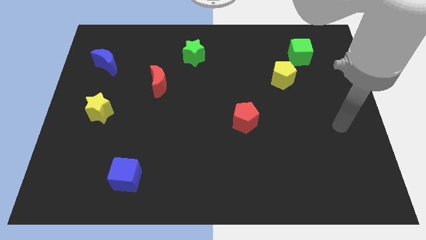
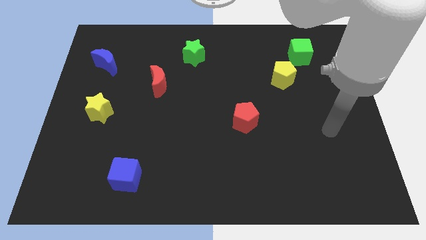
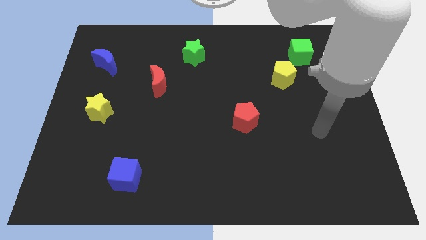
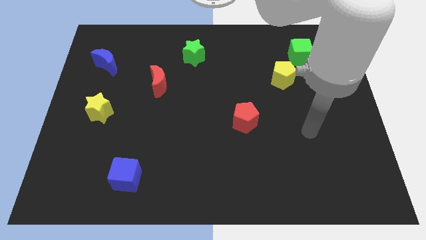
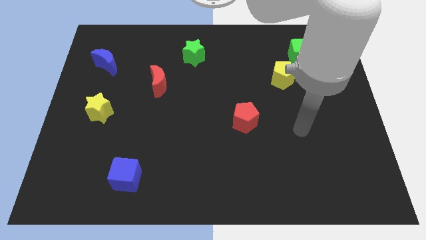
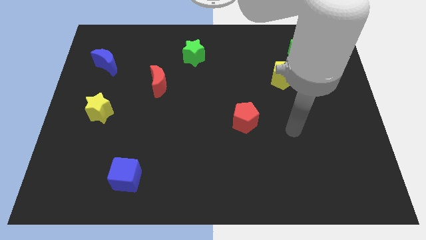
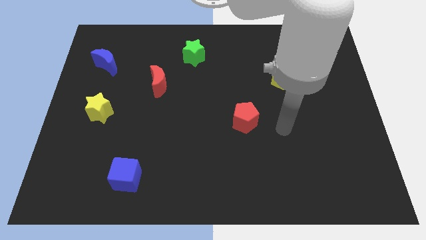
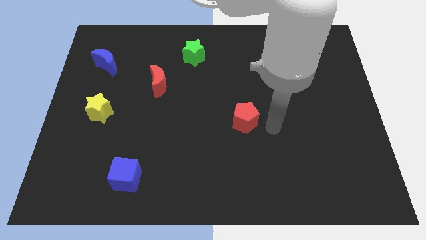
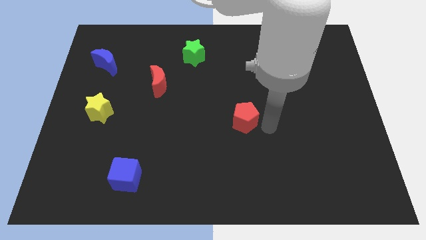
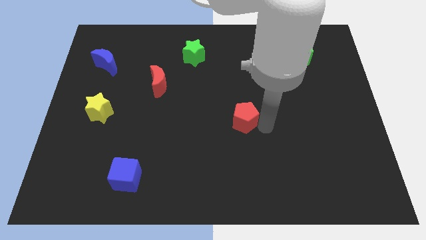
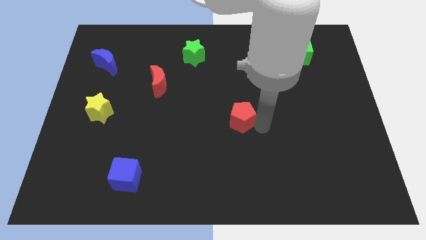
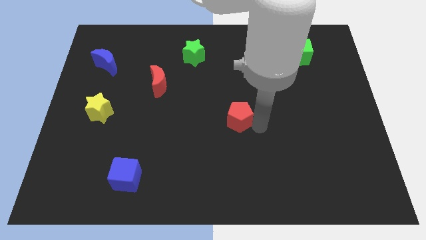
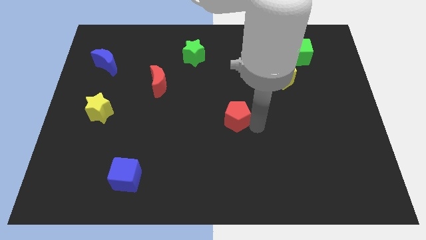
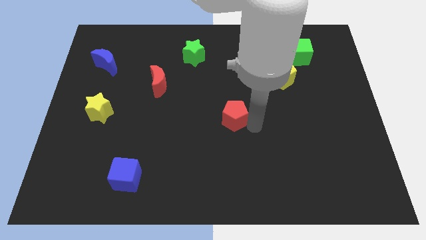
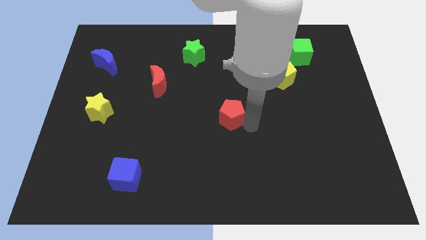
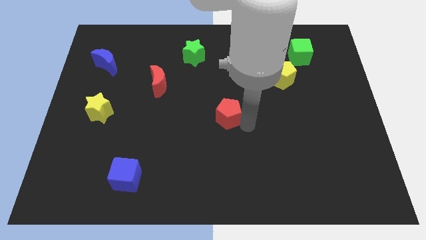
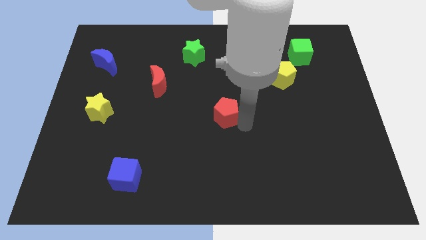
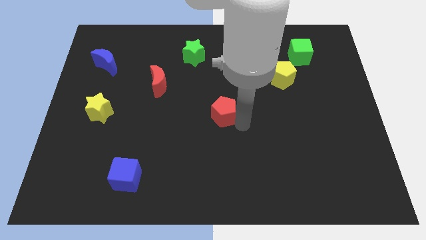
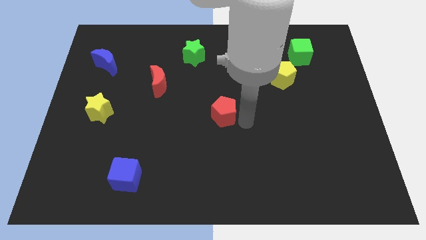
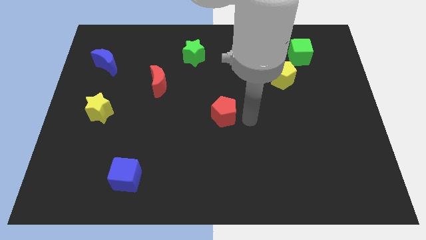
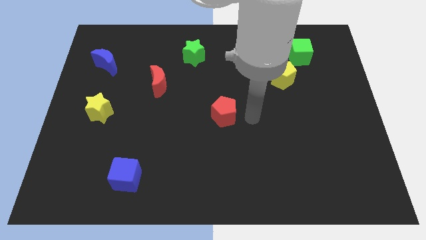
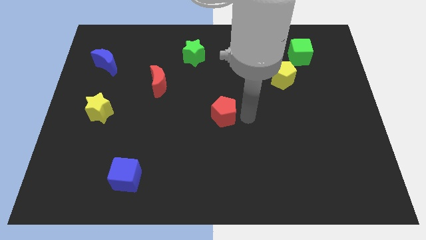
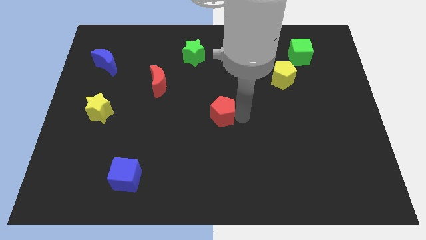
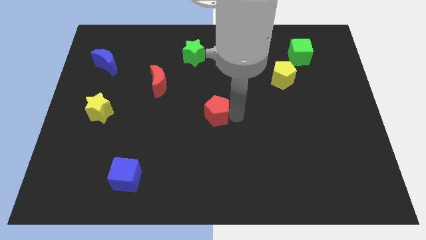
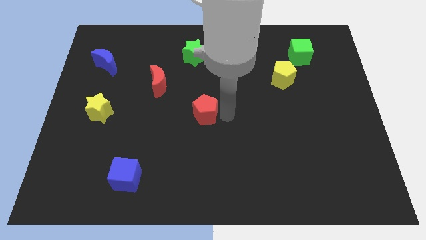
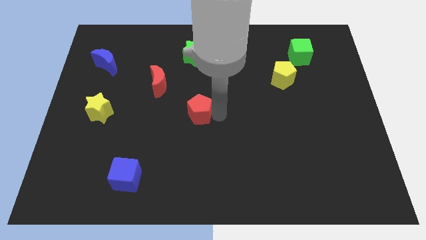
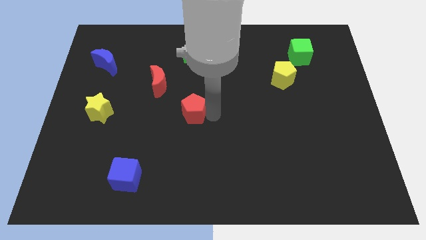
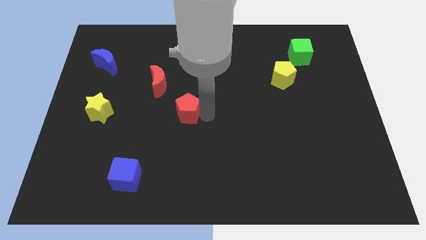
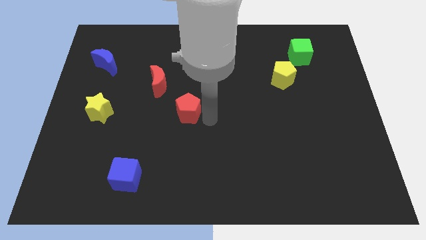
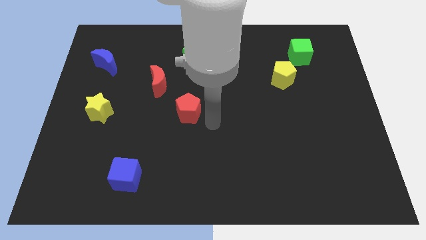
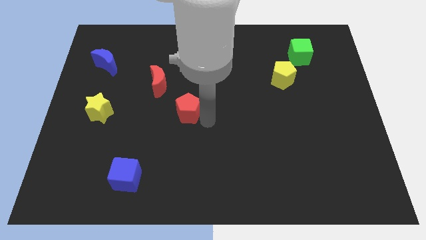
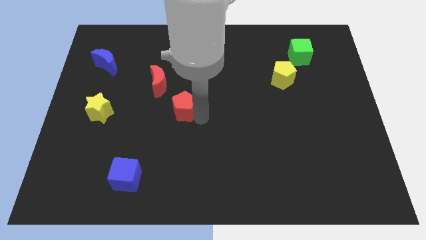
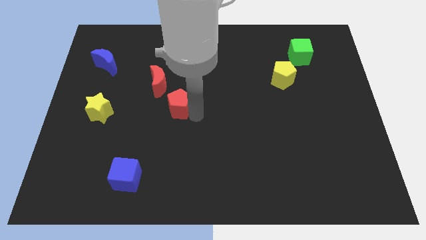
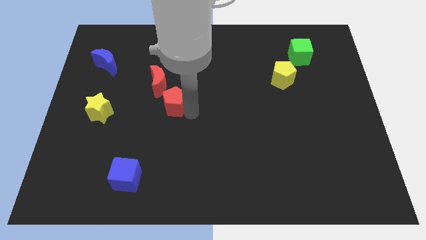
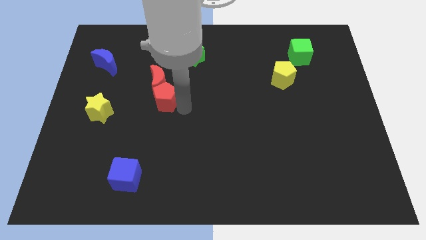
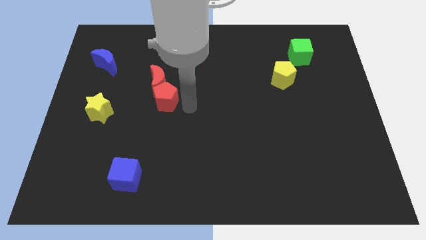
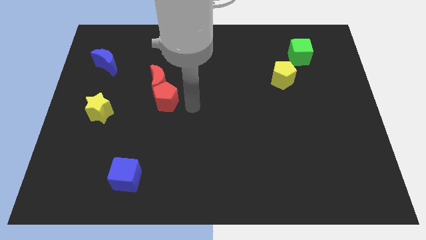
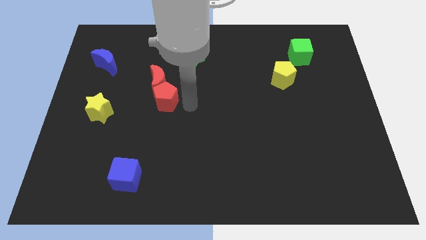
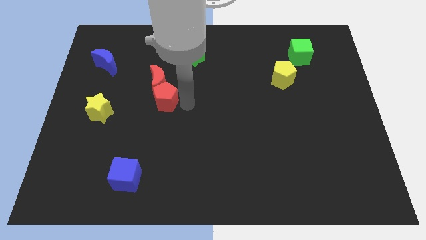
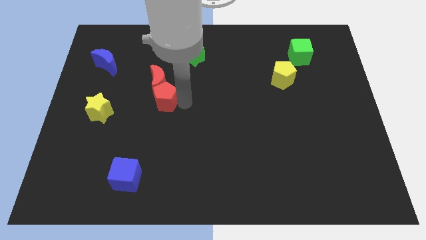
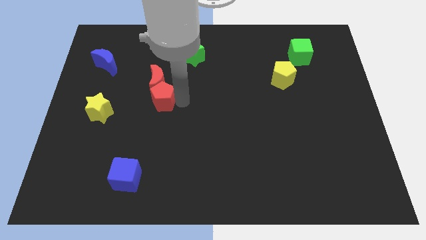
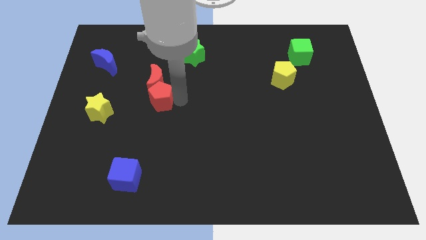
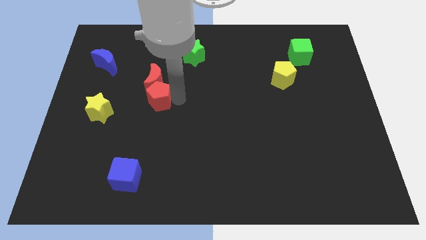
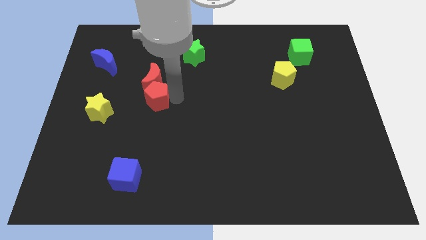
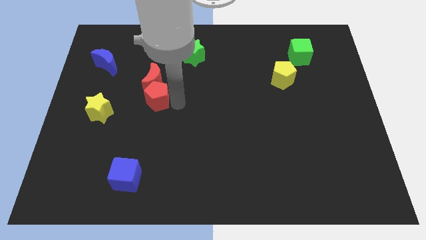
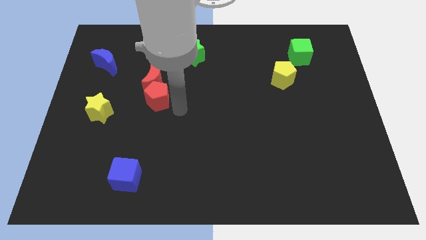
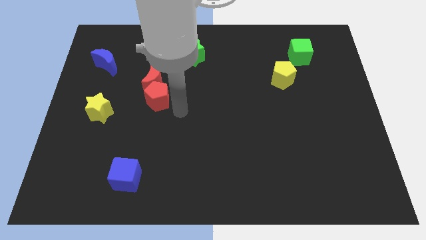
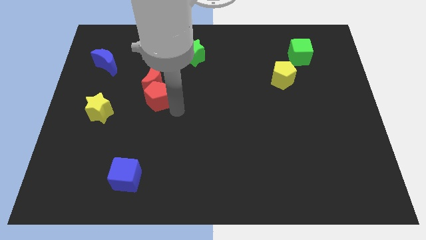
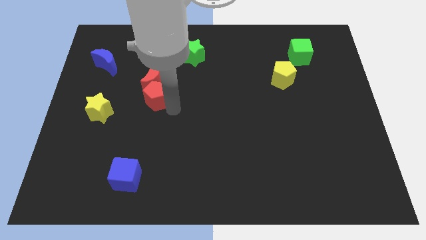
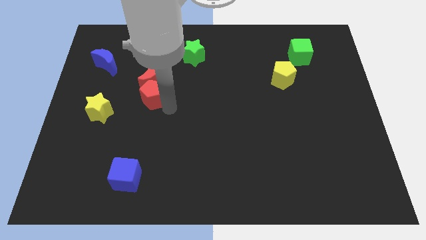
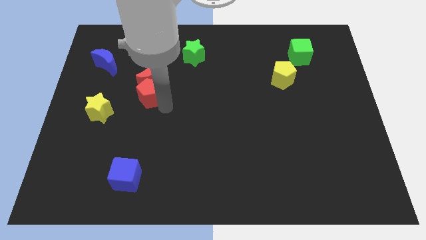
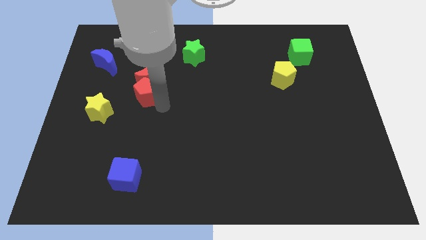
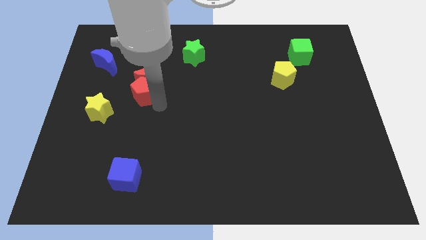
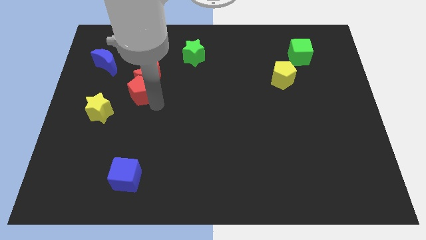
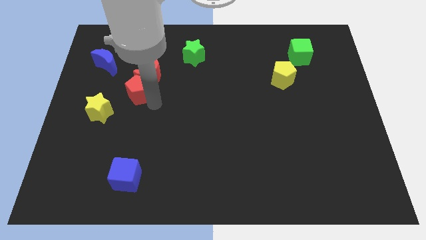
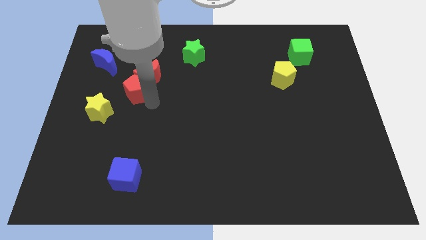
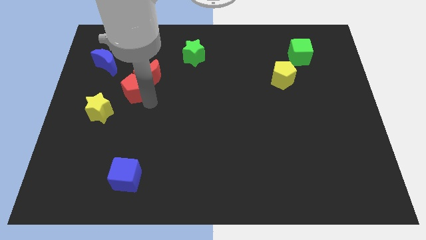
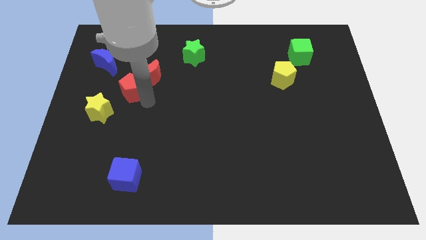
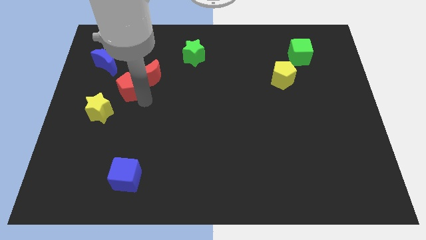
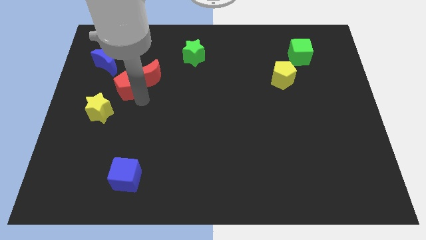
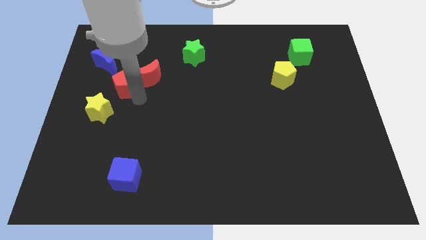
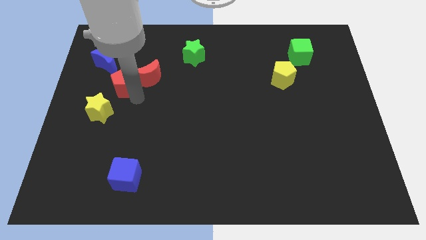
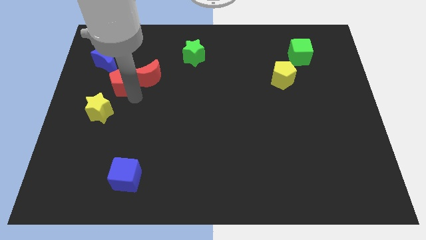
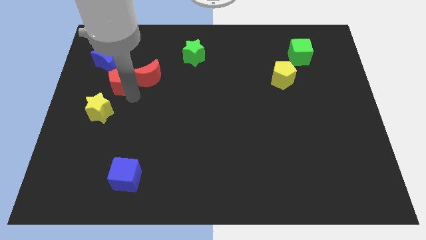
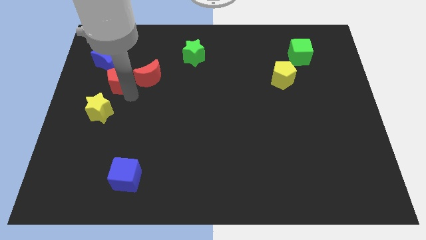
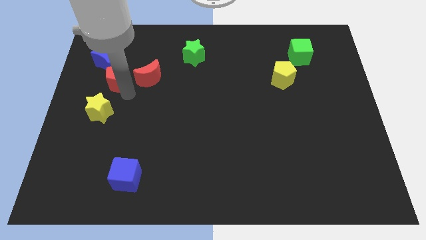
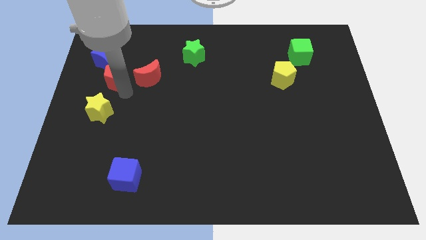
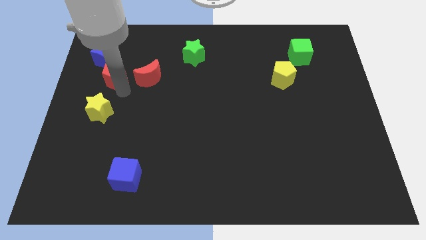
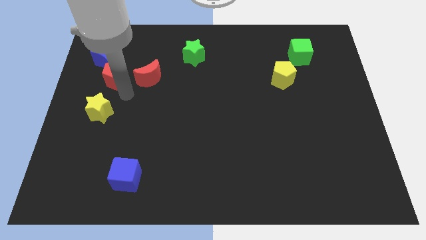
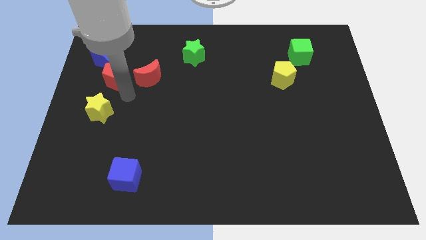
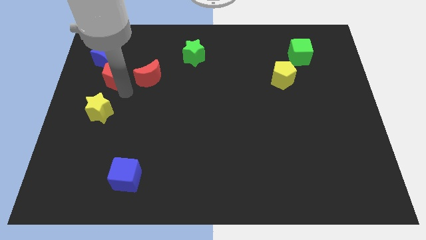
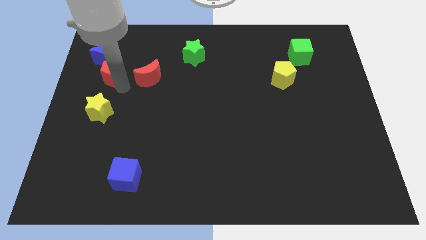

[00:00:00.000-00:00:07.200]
slide the red pentagon to the blue moon
